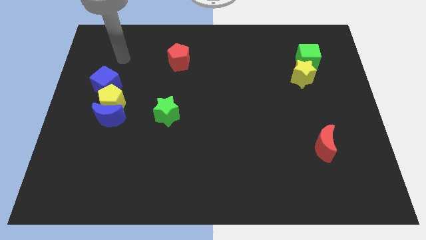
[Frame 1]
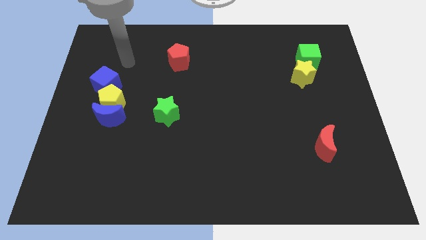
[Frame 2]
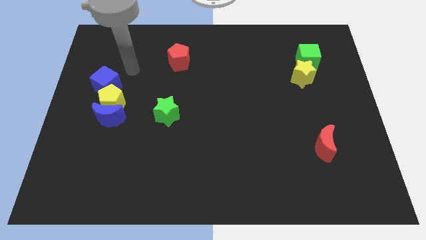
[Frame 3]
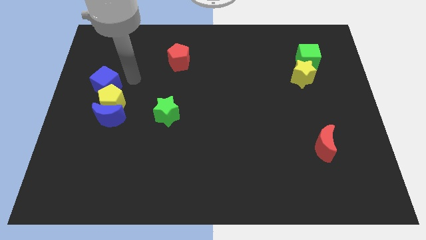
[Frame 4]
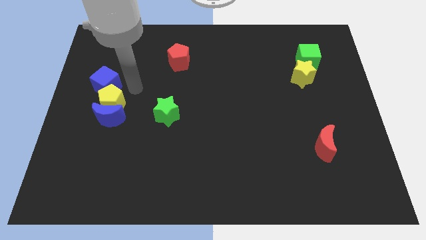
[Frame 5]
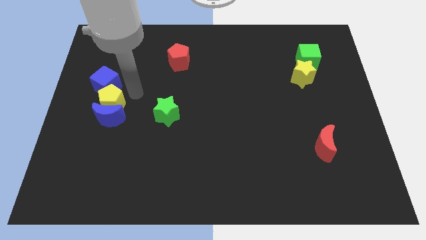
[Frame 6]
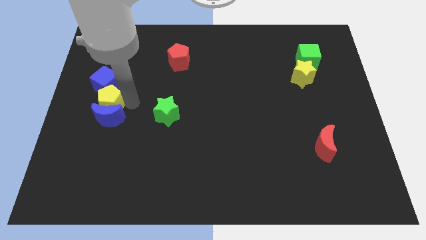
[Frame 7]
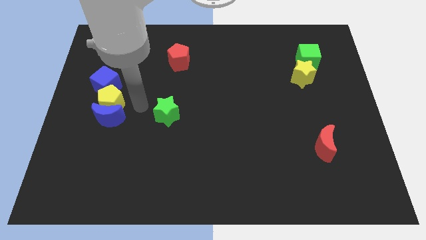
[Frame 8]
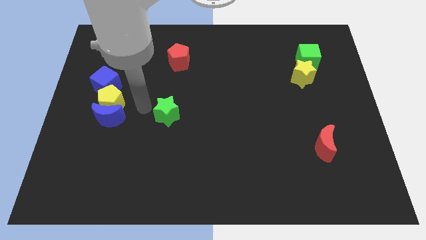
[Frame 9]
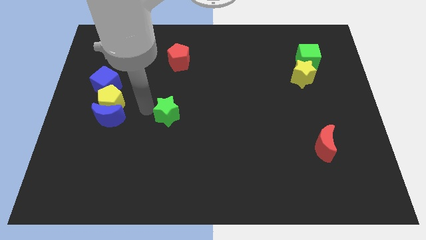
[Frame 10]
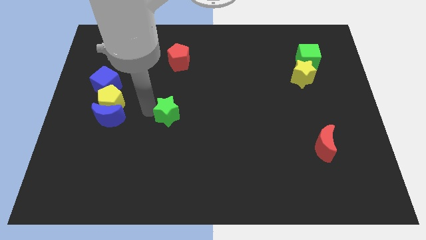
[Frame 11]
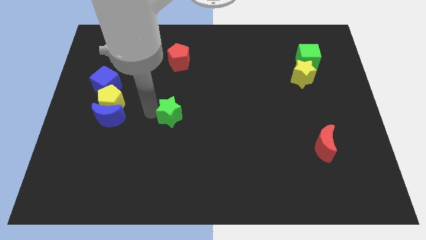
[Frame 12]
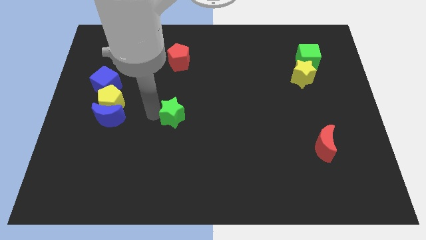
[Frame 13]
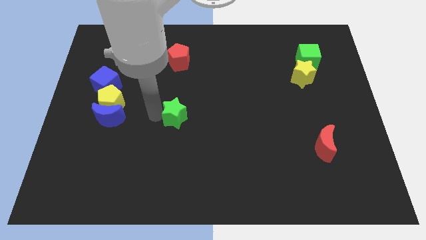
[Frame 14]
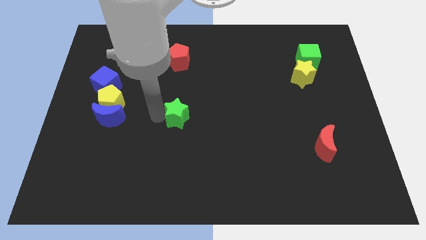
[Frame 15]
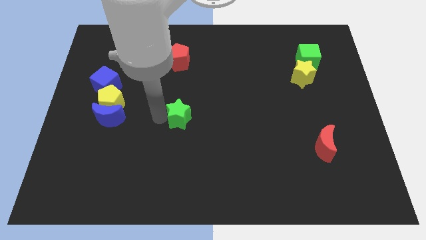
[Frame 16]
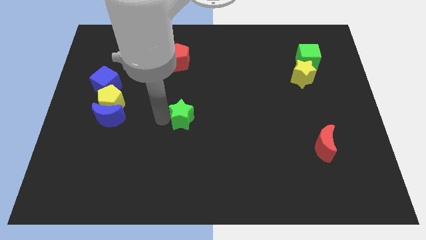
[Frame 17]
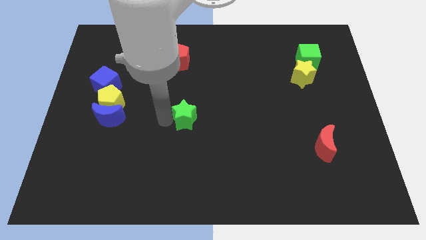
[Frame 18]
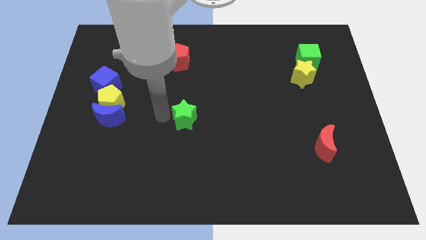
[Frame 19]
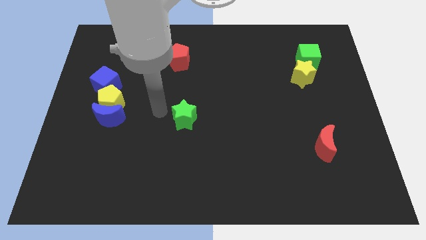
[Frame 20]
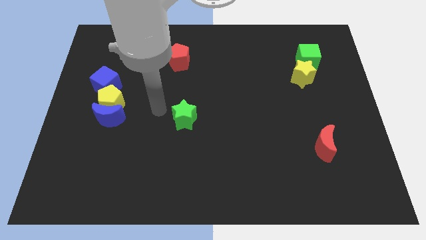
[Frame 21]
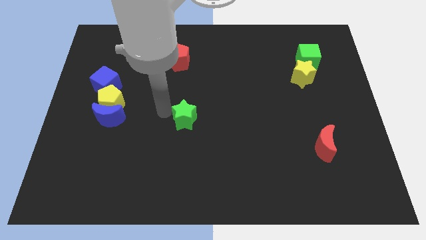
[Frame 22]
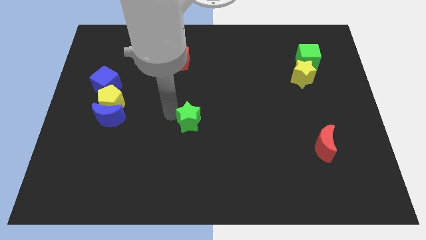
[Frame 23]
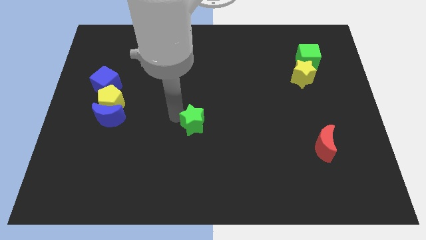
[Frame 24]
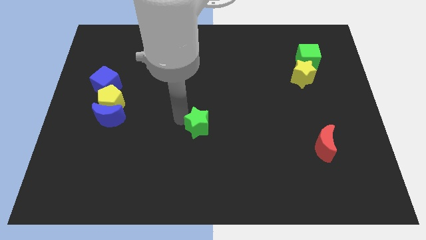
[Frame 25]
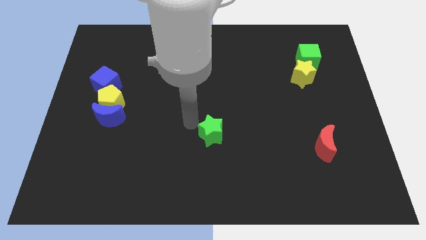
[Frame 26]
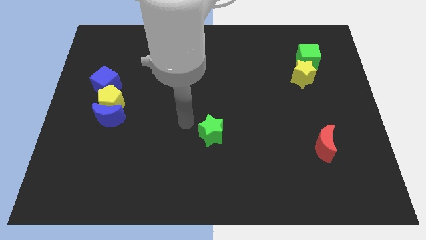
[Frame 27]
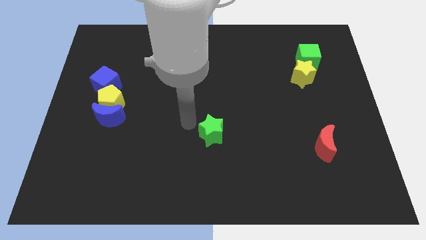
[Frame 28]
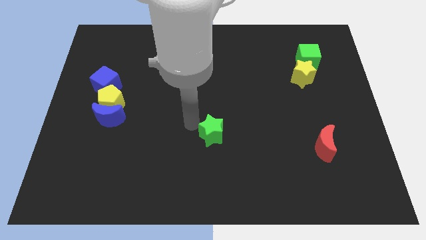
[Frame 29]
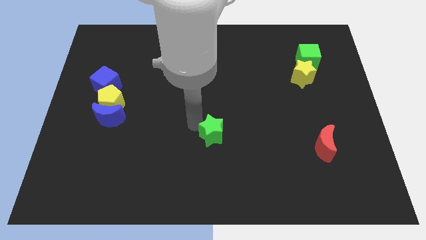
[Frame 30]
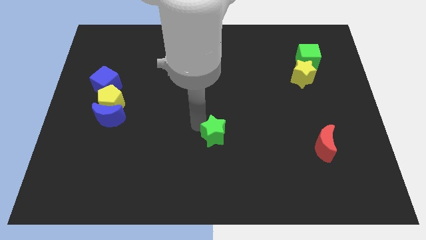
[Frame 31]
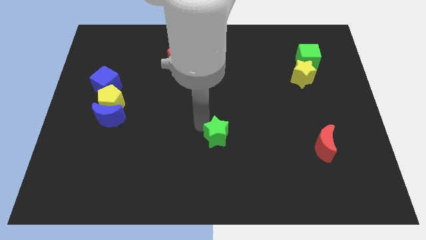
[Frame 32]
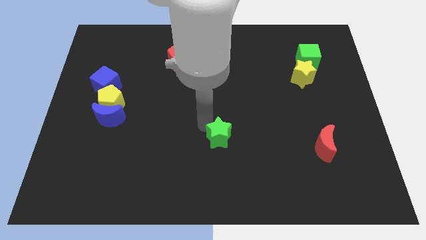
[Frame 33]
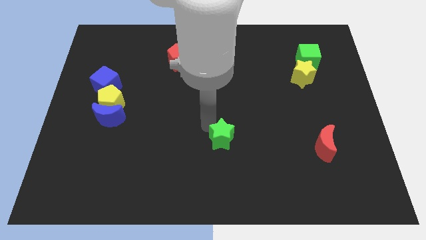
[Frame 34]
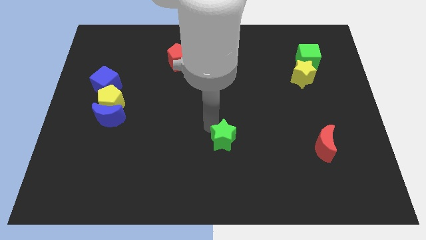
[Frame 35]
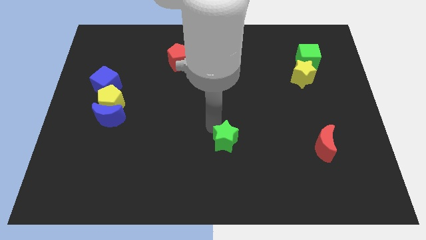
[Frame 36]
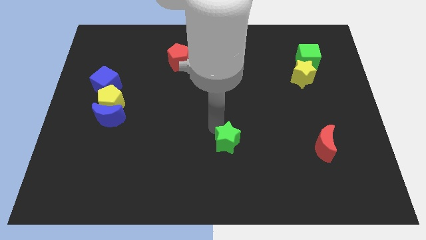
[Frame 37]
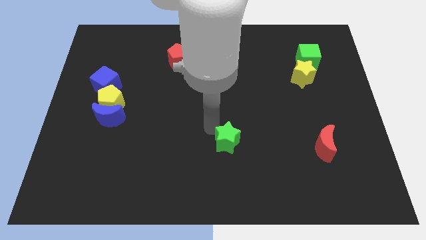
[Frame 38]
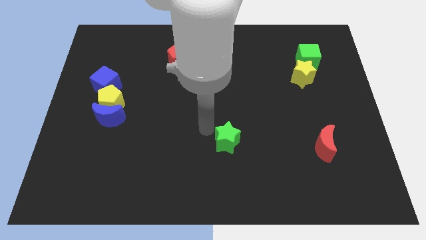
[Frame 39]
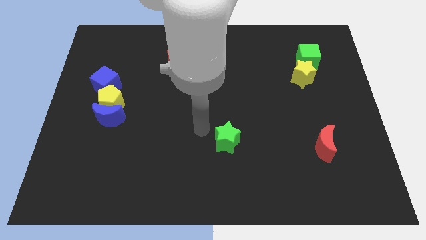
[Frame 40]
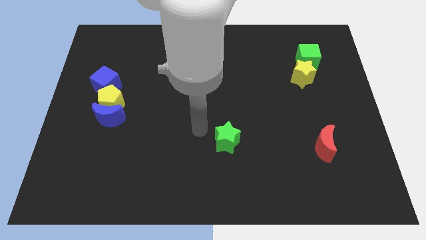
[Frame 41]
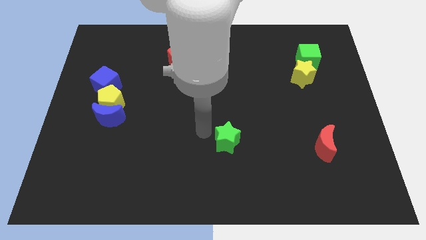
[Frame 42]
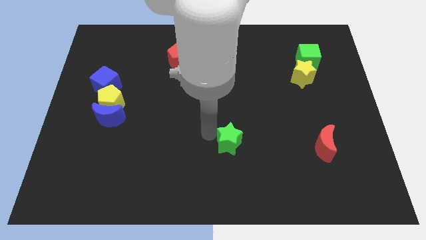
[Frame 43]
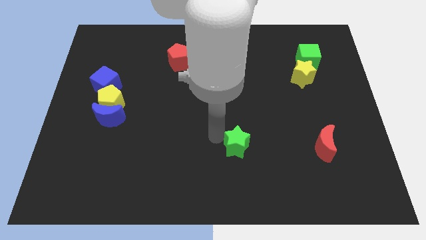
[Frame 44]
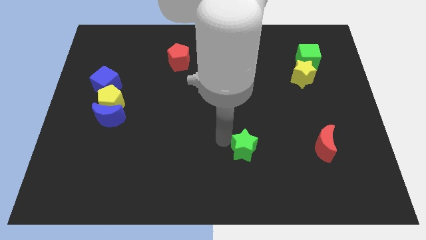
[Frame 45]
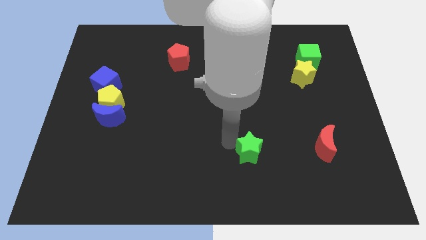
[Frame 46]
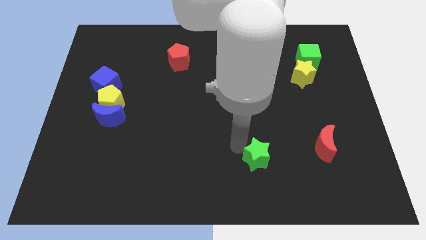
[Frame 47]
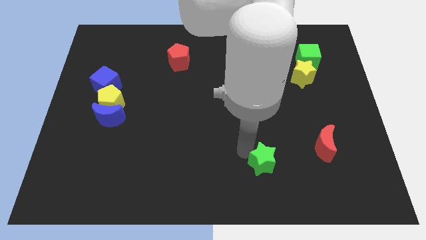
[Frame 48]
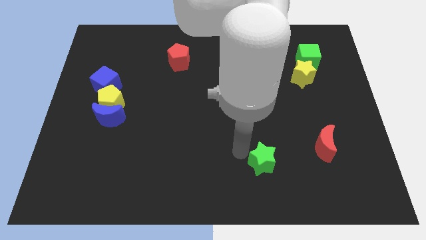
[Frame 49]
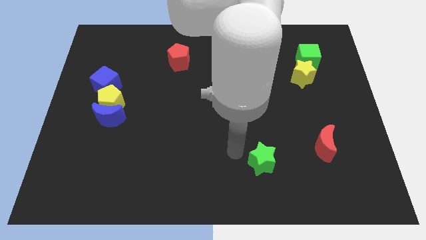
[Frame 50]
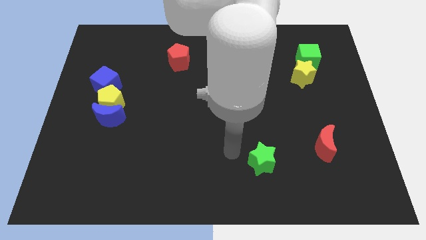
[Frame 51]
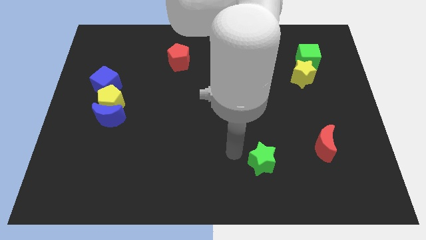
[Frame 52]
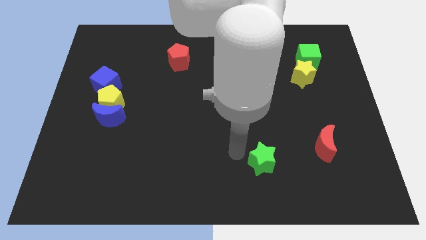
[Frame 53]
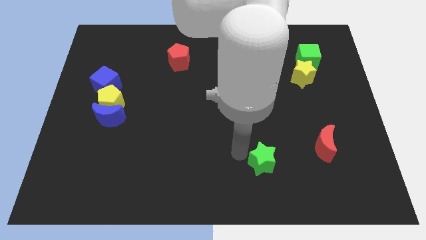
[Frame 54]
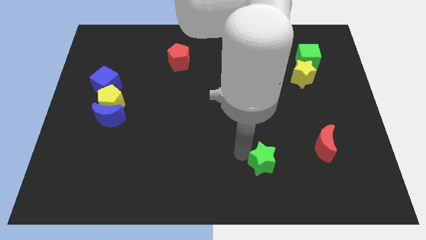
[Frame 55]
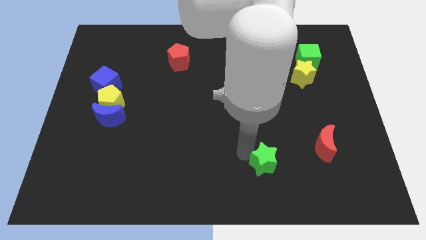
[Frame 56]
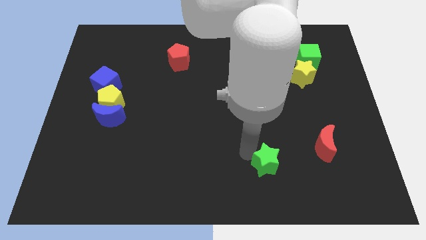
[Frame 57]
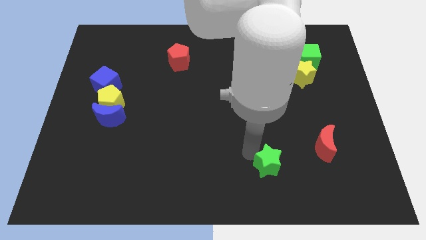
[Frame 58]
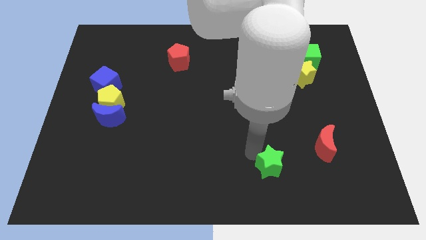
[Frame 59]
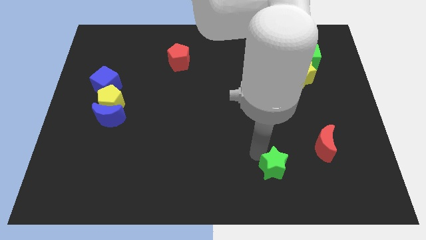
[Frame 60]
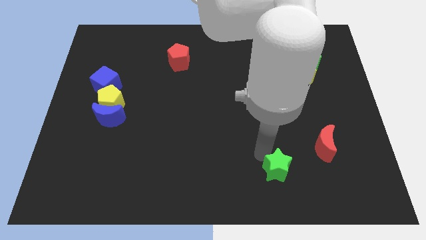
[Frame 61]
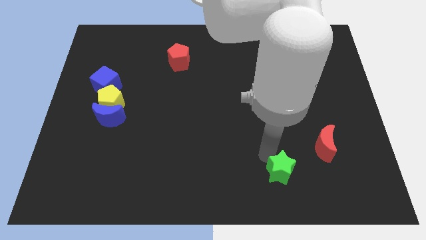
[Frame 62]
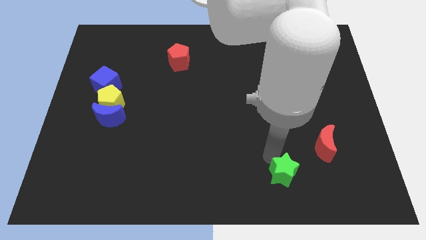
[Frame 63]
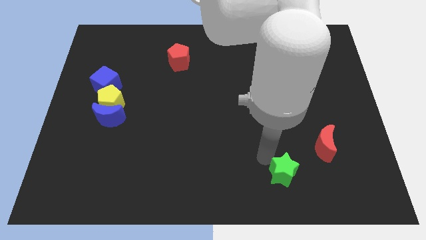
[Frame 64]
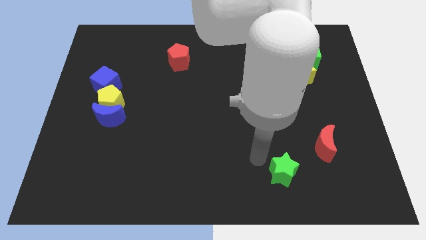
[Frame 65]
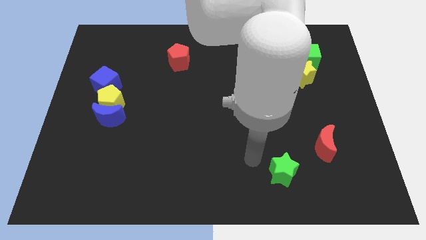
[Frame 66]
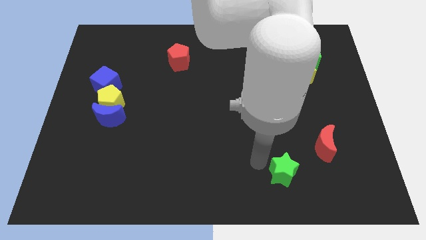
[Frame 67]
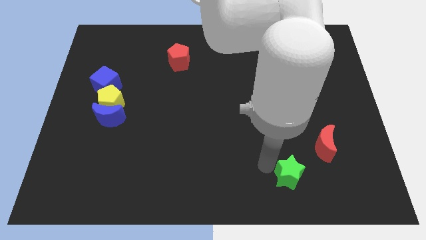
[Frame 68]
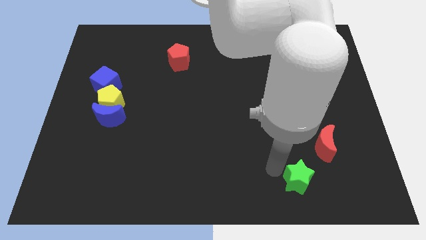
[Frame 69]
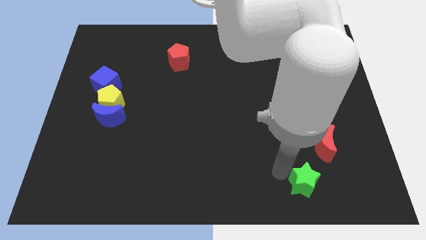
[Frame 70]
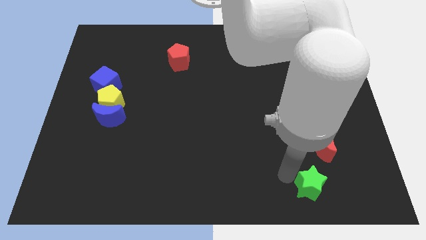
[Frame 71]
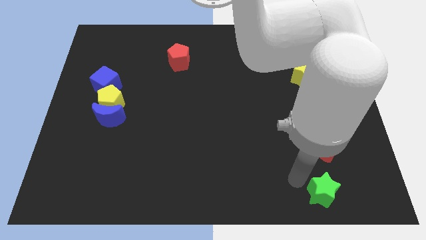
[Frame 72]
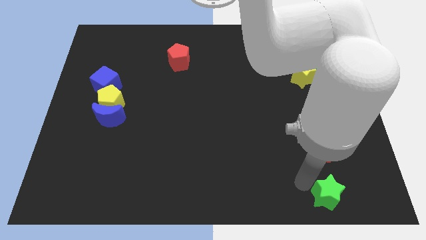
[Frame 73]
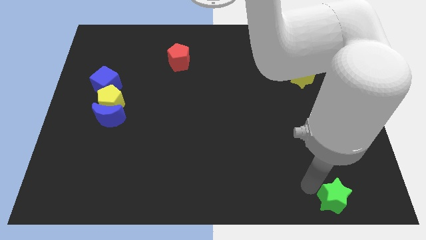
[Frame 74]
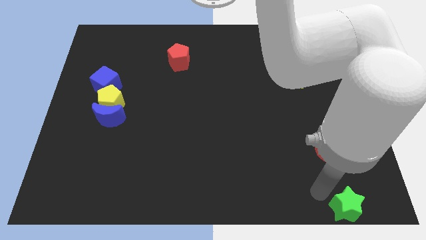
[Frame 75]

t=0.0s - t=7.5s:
move the green star to the bottom right of the board
